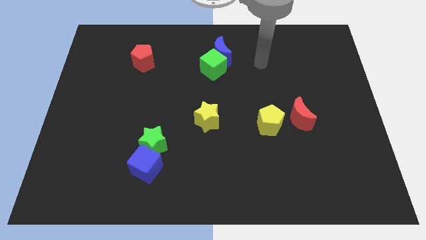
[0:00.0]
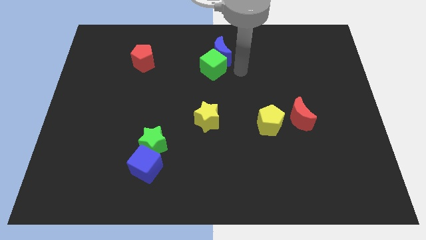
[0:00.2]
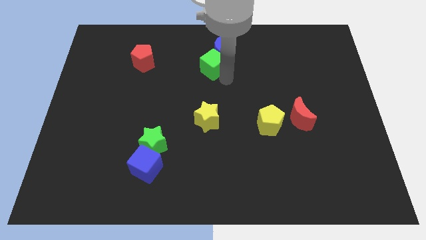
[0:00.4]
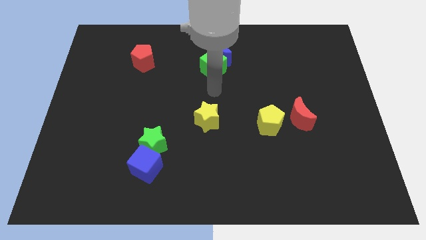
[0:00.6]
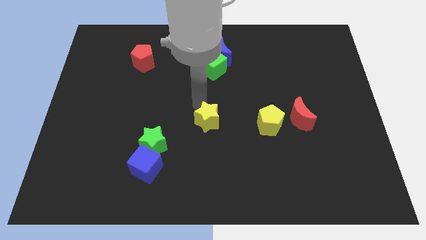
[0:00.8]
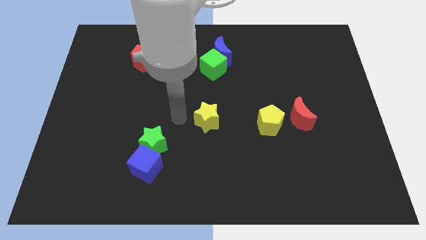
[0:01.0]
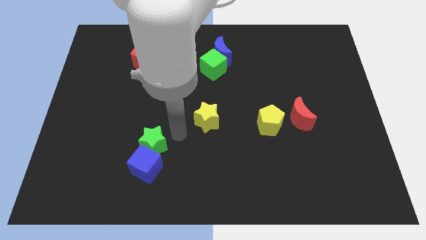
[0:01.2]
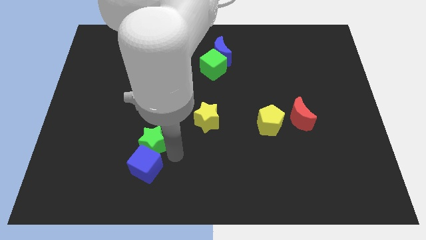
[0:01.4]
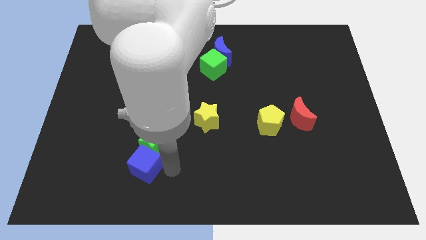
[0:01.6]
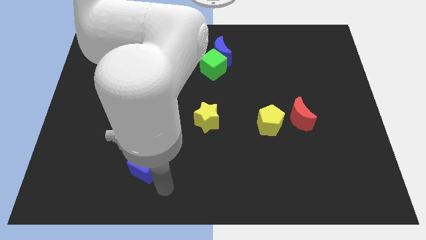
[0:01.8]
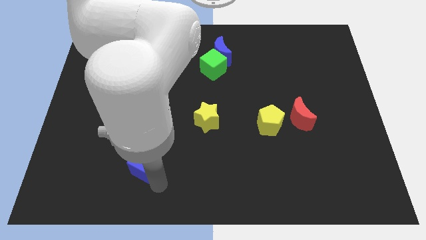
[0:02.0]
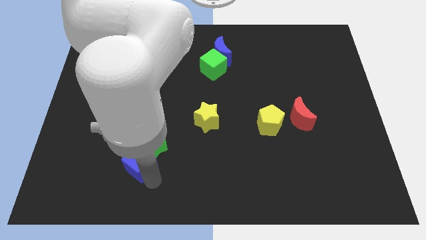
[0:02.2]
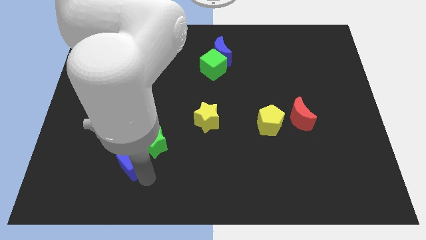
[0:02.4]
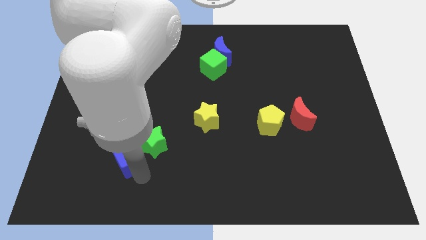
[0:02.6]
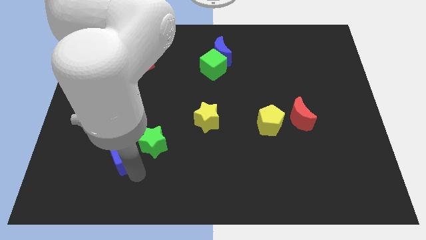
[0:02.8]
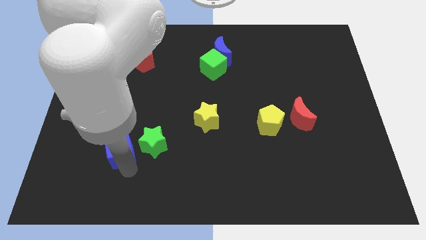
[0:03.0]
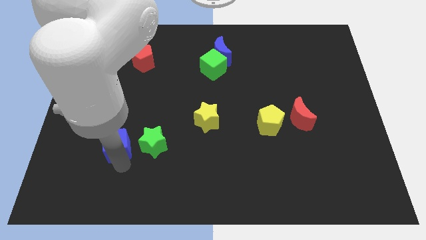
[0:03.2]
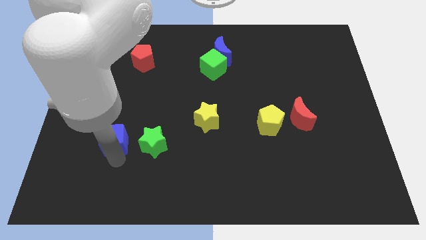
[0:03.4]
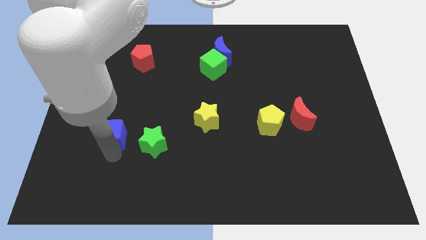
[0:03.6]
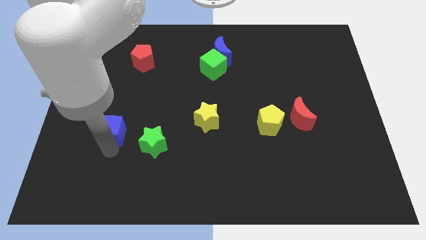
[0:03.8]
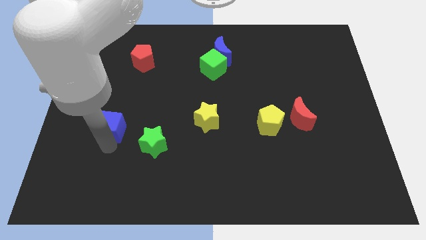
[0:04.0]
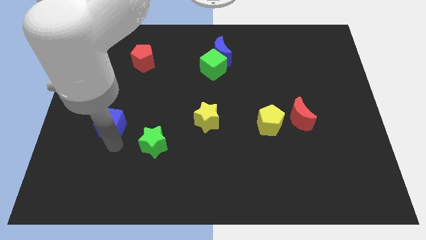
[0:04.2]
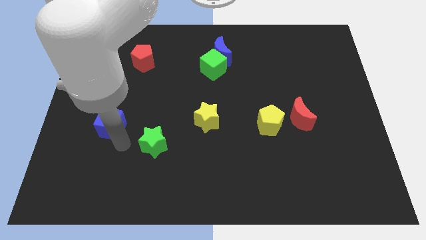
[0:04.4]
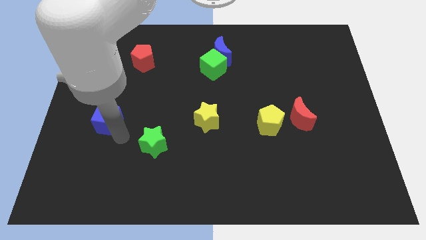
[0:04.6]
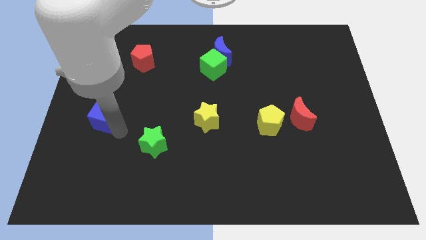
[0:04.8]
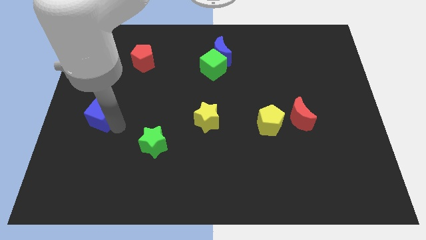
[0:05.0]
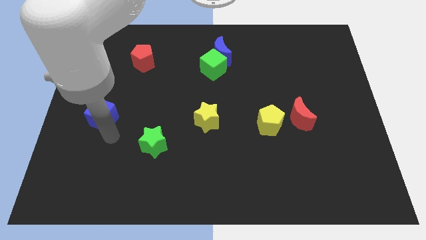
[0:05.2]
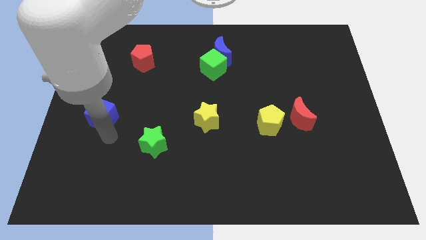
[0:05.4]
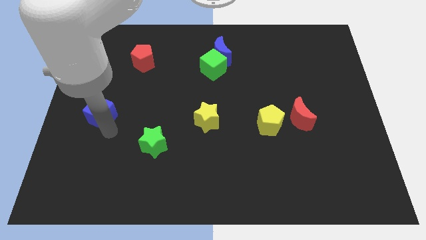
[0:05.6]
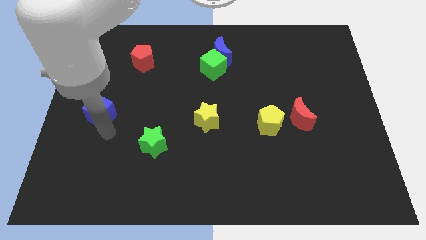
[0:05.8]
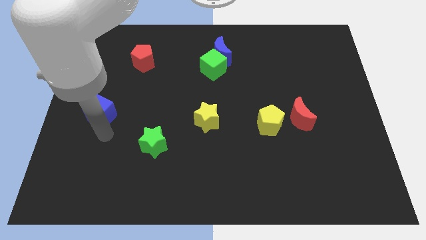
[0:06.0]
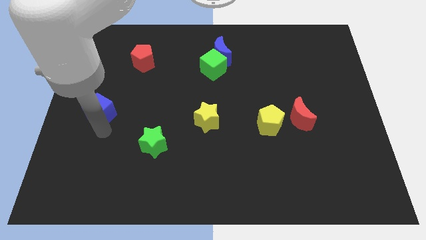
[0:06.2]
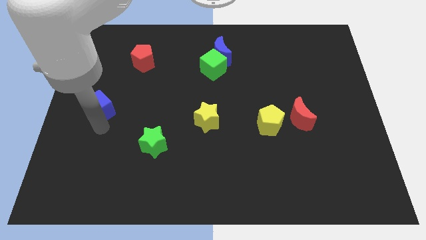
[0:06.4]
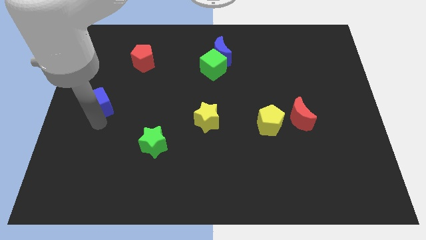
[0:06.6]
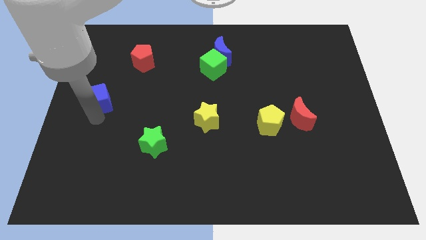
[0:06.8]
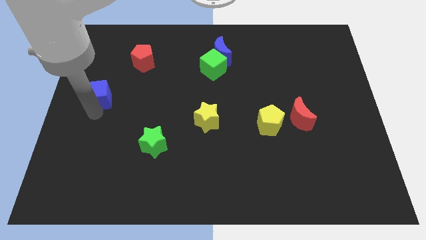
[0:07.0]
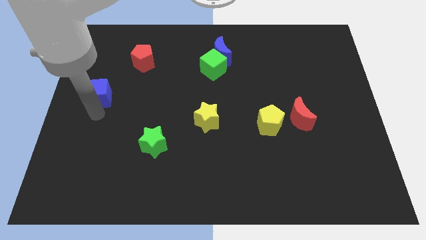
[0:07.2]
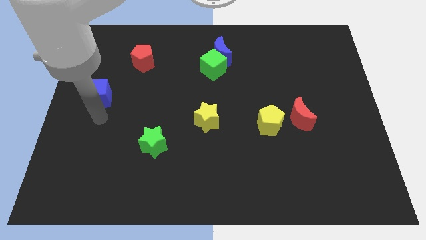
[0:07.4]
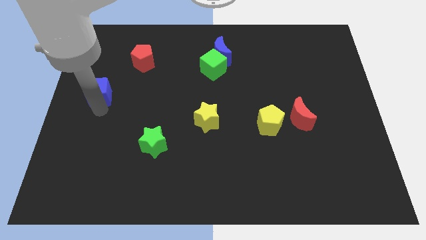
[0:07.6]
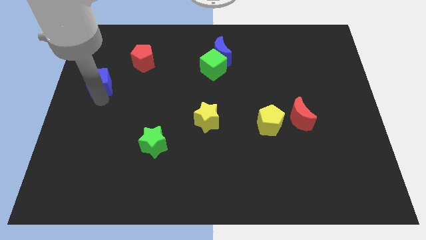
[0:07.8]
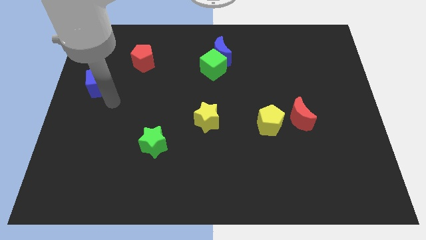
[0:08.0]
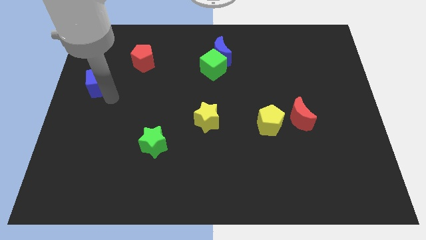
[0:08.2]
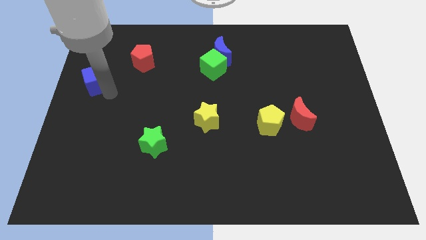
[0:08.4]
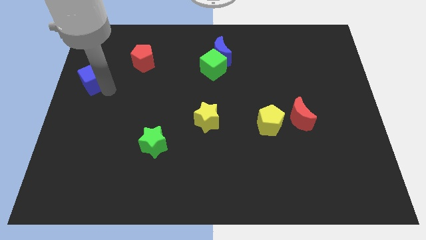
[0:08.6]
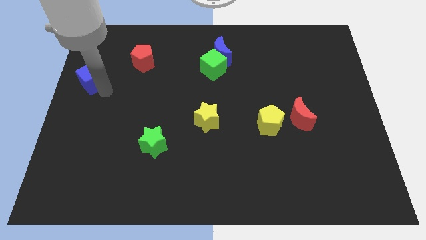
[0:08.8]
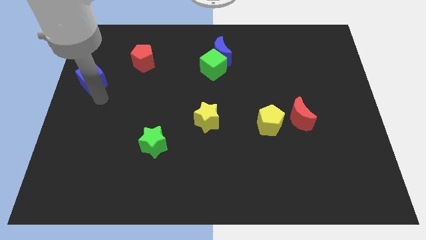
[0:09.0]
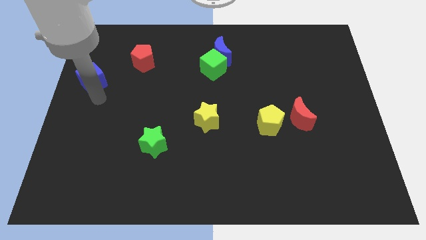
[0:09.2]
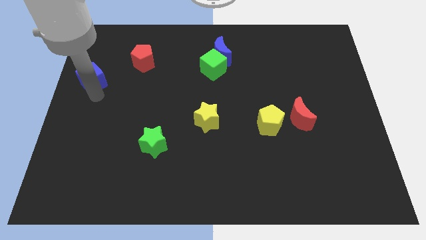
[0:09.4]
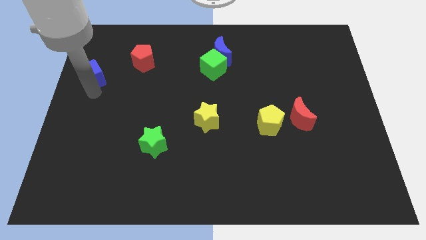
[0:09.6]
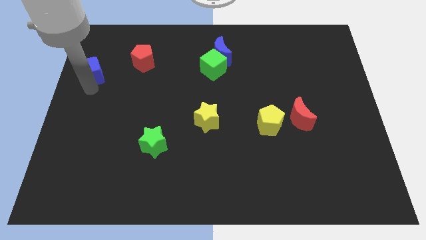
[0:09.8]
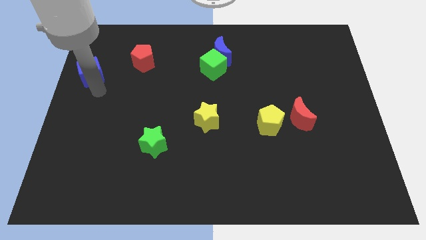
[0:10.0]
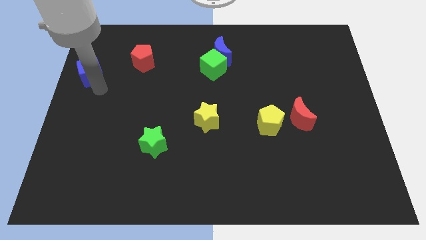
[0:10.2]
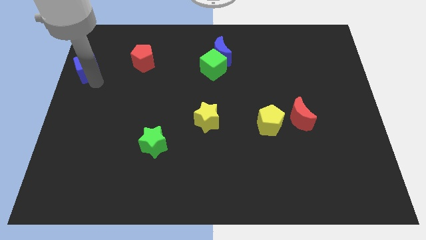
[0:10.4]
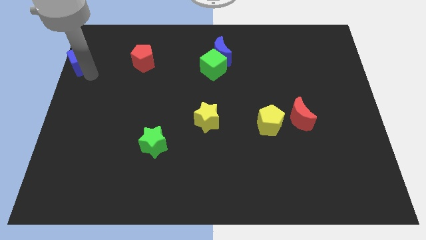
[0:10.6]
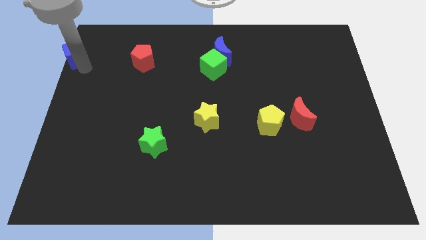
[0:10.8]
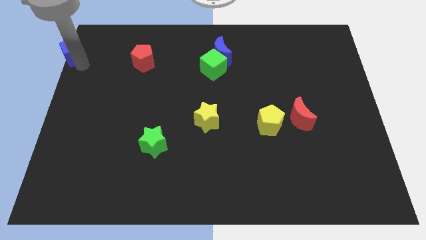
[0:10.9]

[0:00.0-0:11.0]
push the blue cube to the top left of the board

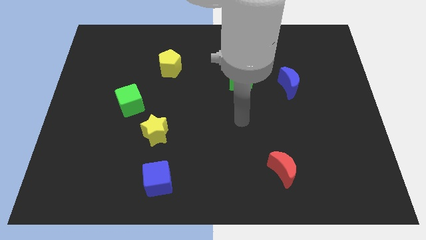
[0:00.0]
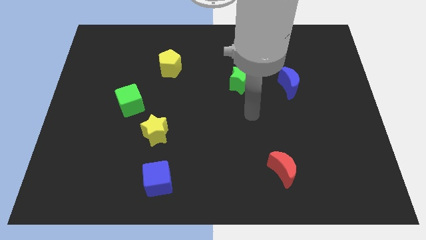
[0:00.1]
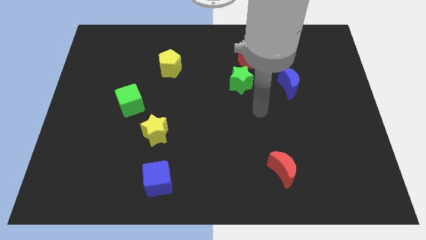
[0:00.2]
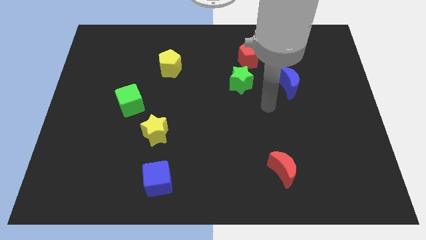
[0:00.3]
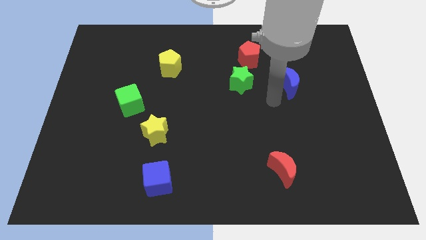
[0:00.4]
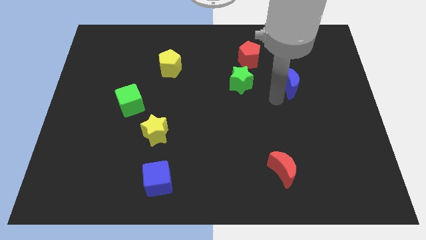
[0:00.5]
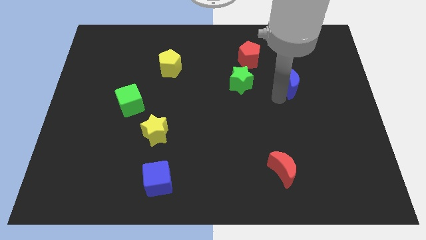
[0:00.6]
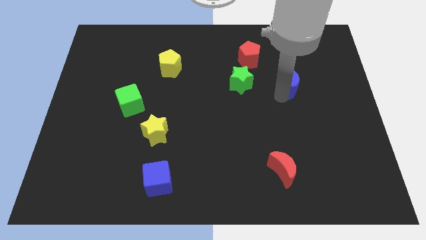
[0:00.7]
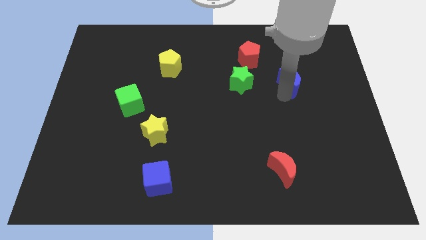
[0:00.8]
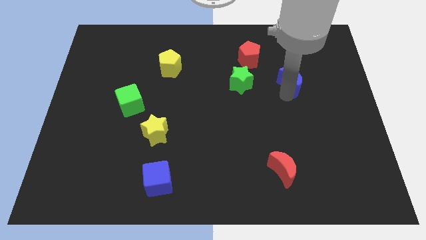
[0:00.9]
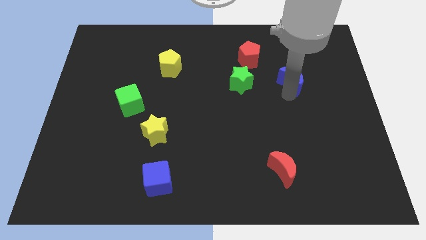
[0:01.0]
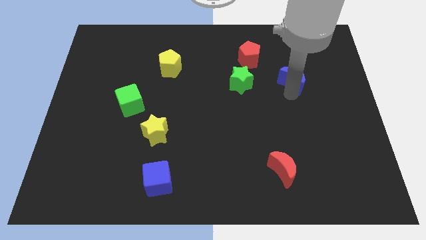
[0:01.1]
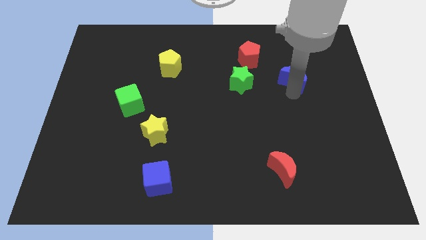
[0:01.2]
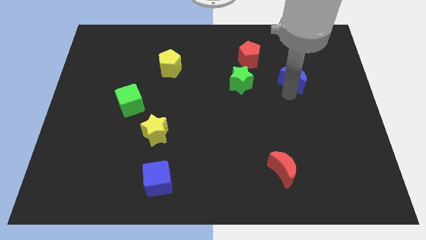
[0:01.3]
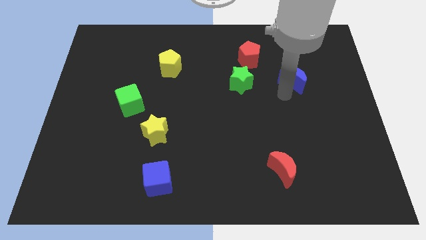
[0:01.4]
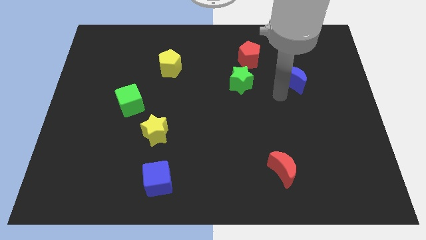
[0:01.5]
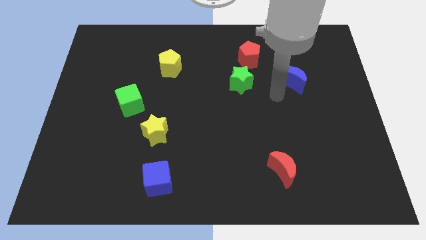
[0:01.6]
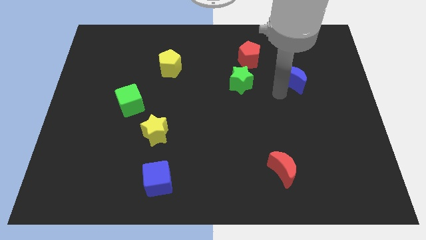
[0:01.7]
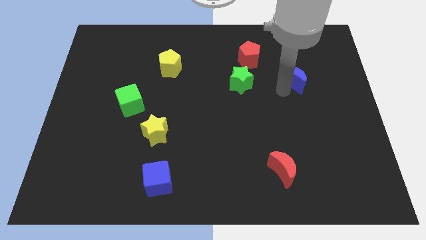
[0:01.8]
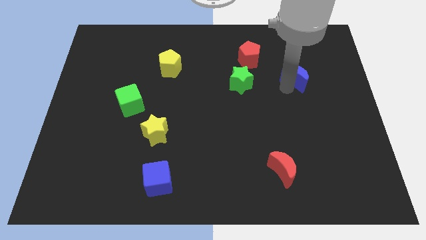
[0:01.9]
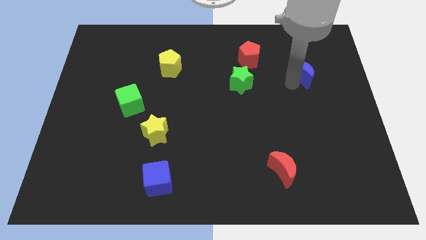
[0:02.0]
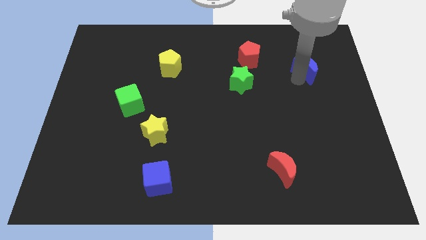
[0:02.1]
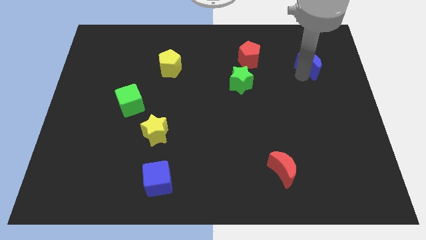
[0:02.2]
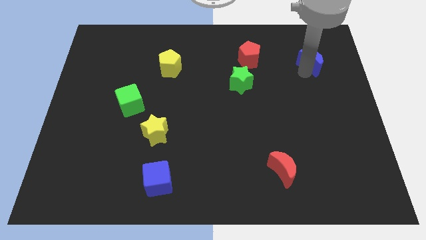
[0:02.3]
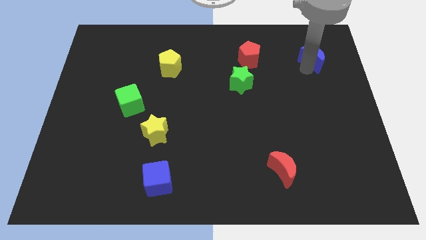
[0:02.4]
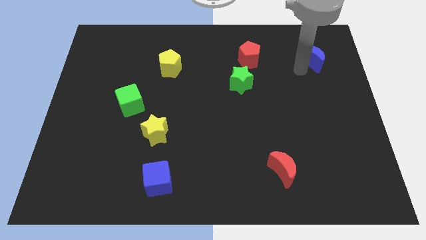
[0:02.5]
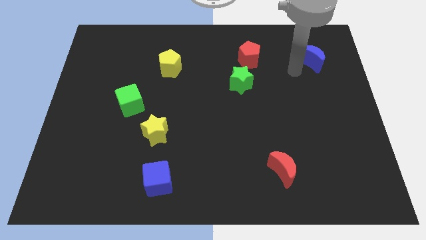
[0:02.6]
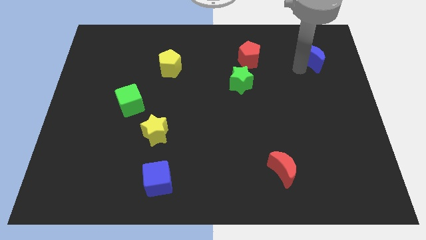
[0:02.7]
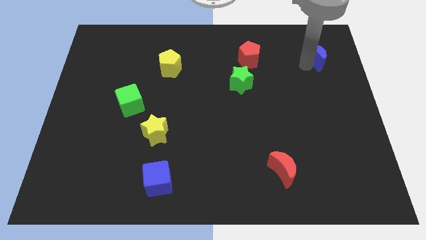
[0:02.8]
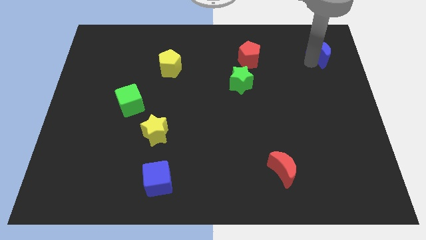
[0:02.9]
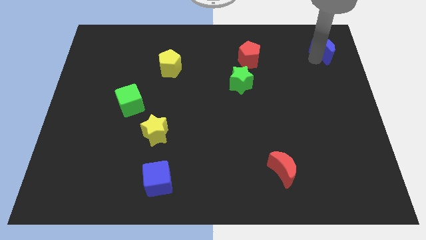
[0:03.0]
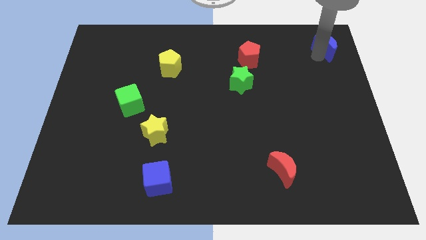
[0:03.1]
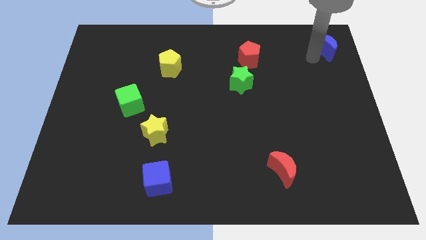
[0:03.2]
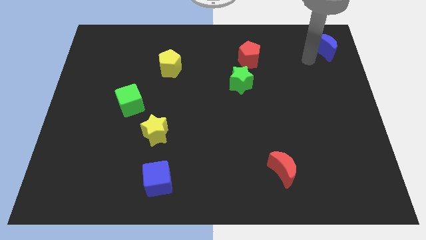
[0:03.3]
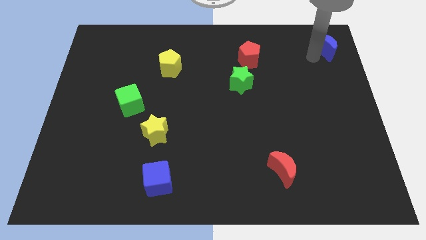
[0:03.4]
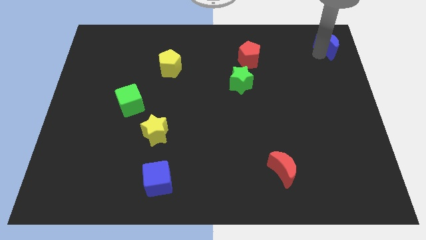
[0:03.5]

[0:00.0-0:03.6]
move the blue moon to the top right
